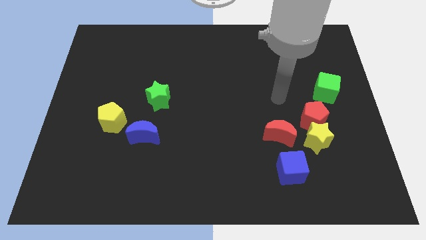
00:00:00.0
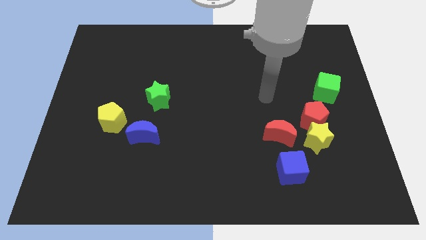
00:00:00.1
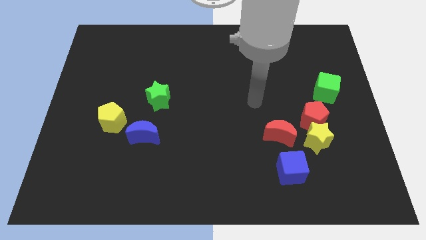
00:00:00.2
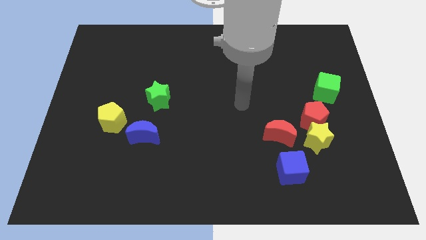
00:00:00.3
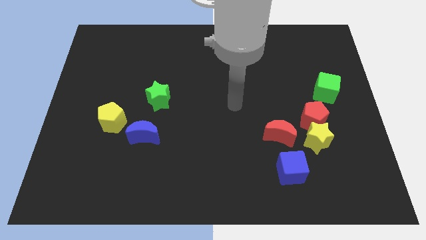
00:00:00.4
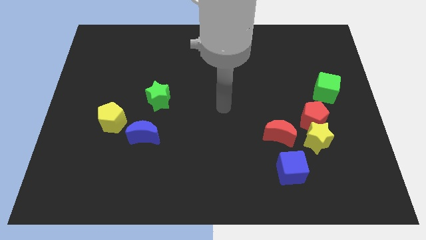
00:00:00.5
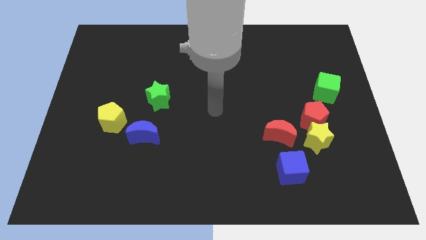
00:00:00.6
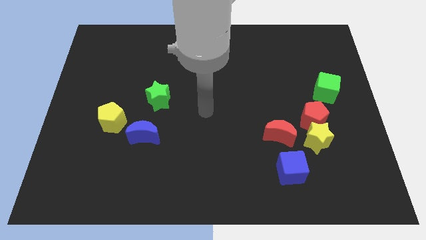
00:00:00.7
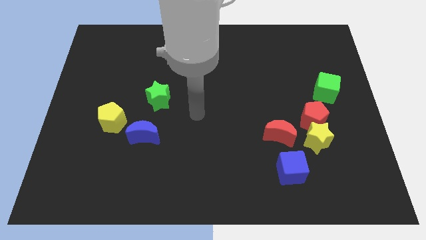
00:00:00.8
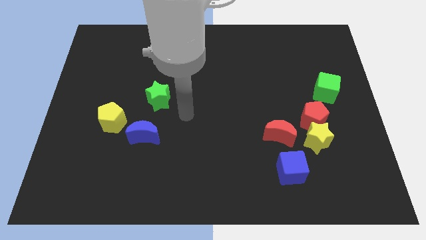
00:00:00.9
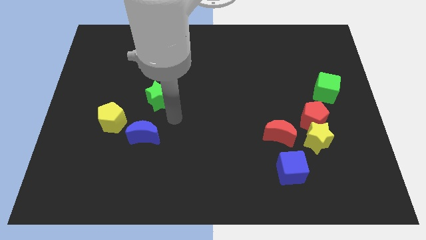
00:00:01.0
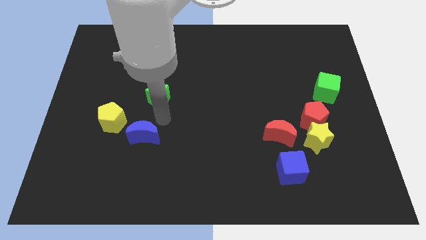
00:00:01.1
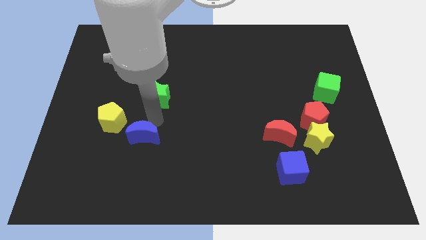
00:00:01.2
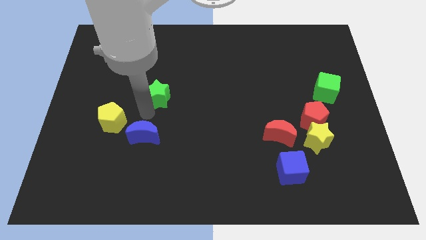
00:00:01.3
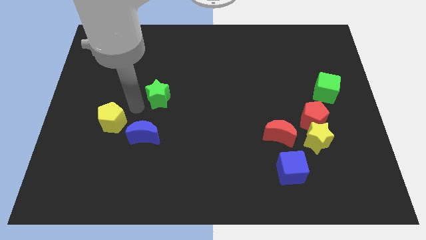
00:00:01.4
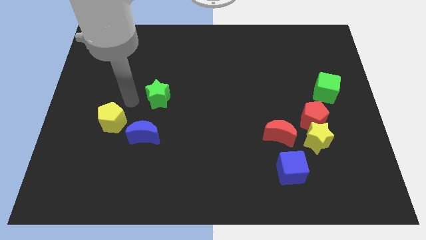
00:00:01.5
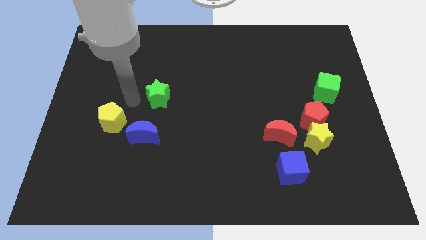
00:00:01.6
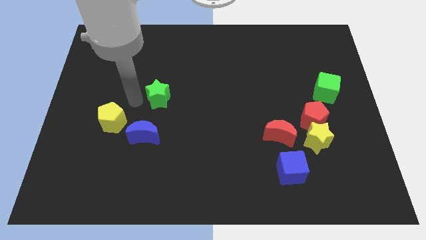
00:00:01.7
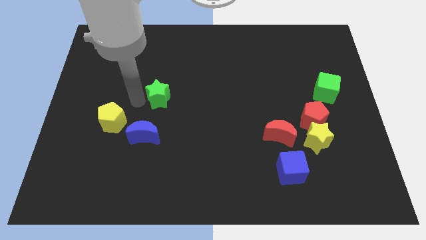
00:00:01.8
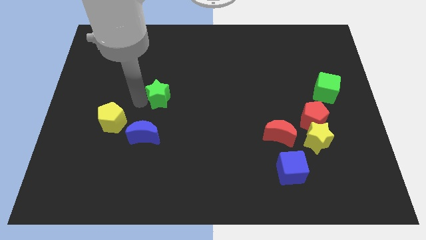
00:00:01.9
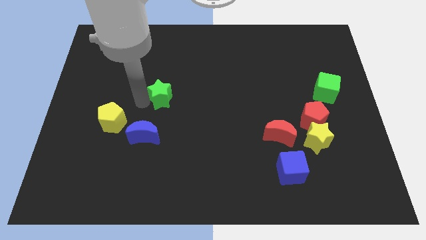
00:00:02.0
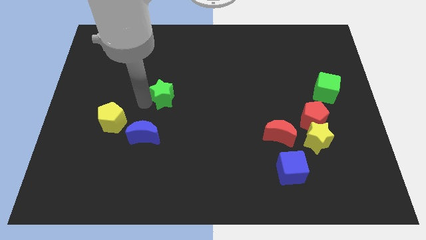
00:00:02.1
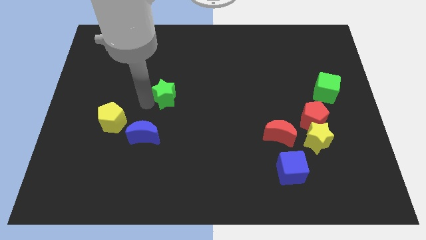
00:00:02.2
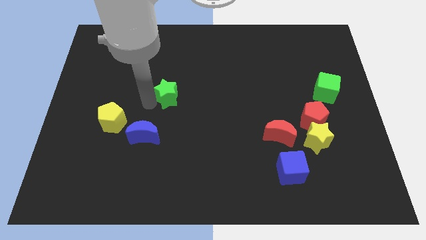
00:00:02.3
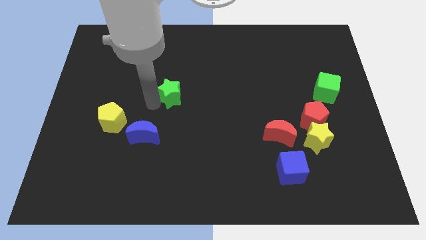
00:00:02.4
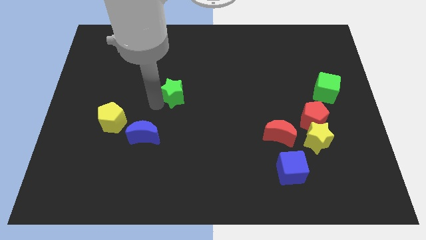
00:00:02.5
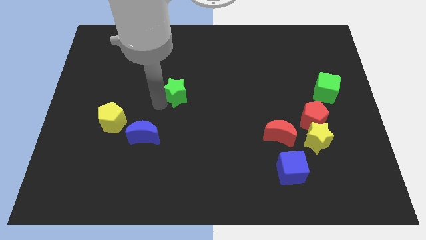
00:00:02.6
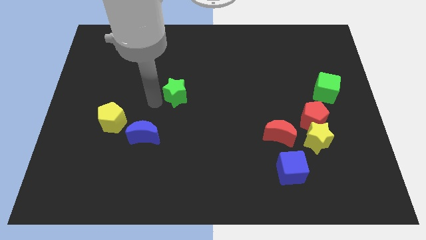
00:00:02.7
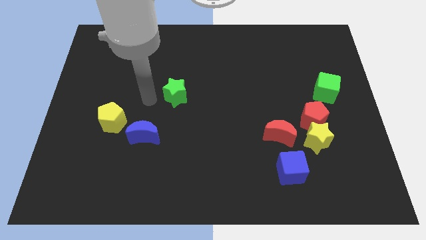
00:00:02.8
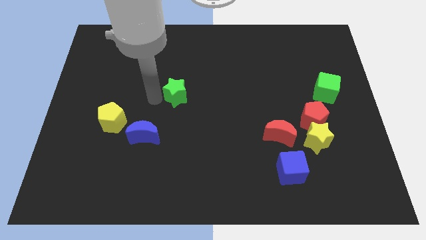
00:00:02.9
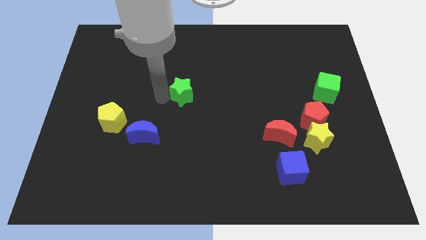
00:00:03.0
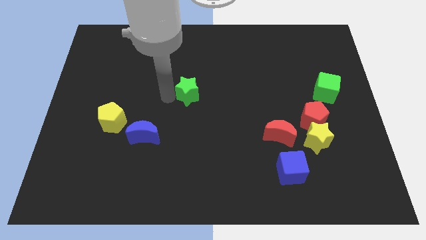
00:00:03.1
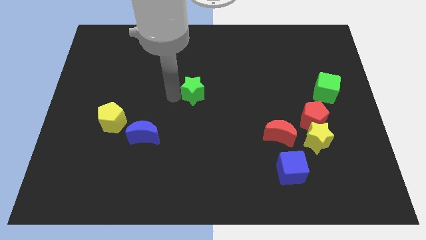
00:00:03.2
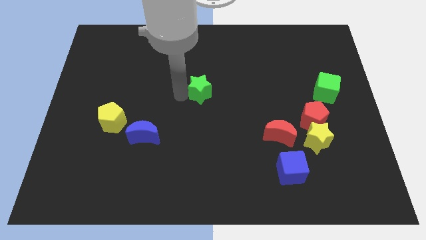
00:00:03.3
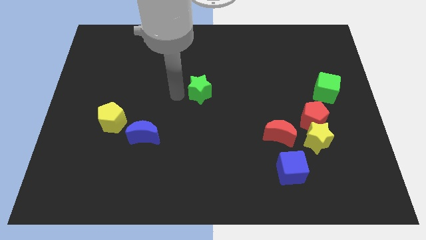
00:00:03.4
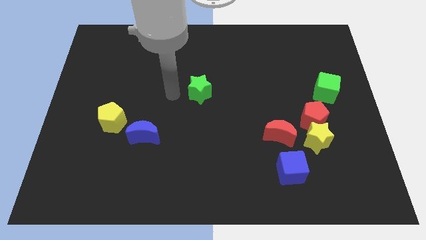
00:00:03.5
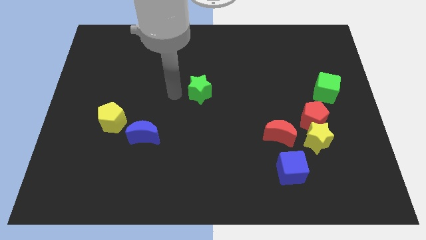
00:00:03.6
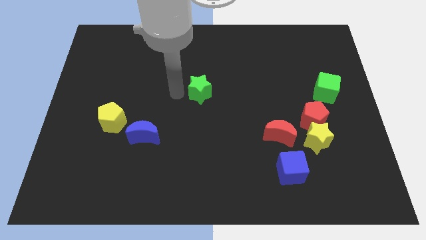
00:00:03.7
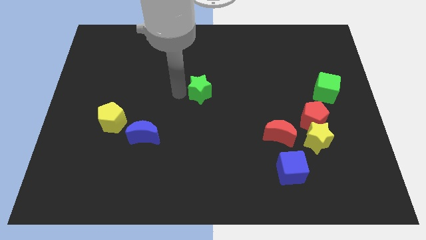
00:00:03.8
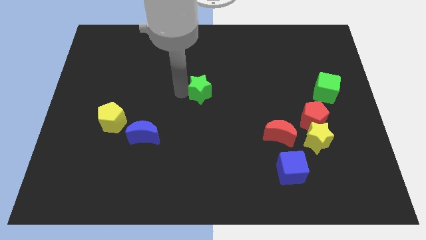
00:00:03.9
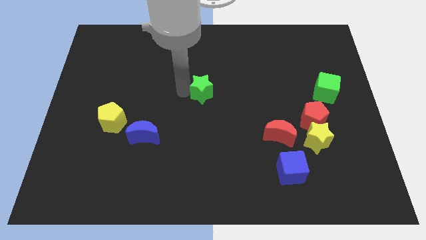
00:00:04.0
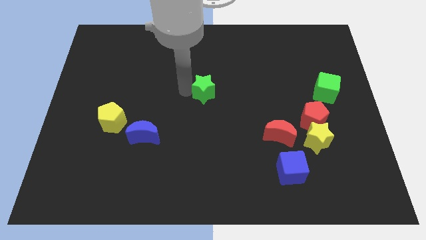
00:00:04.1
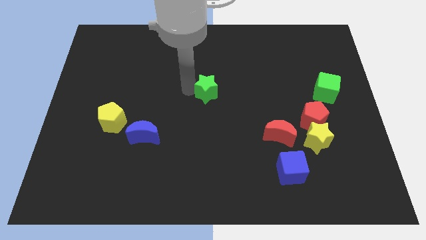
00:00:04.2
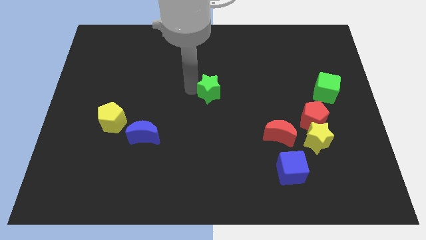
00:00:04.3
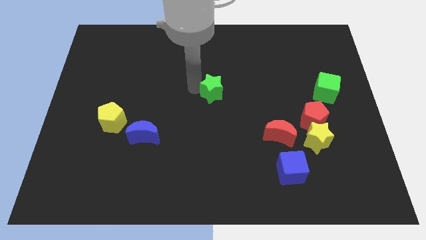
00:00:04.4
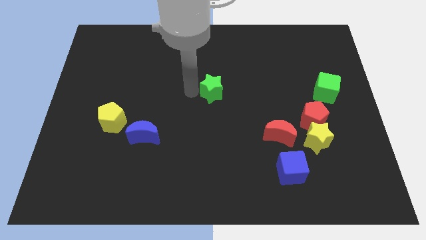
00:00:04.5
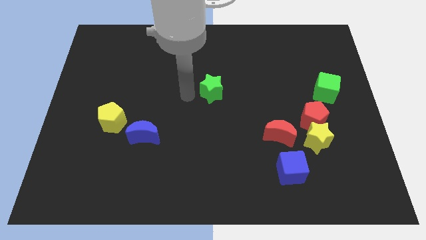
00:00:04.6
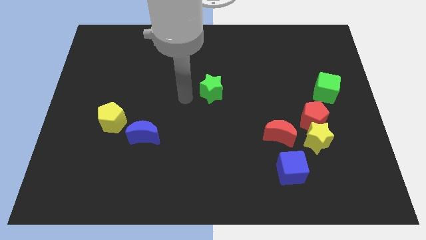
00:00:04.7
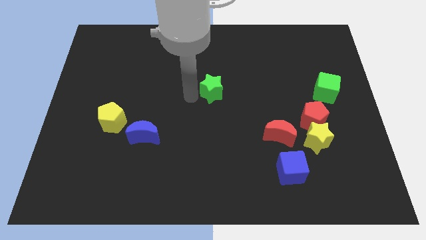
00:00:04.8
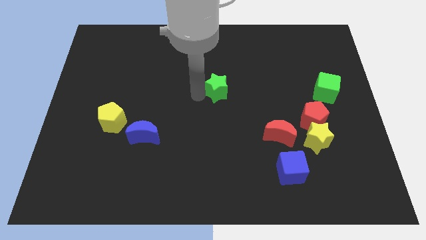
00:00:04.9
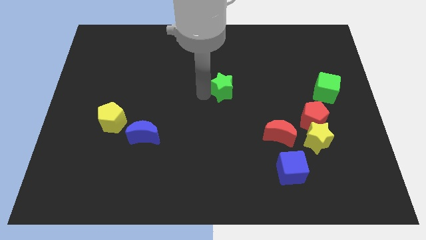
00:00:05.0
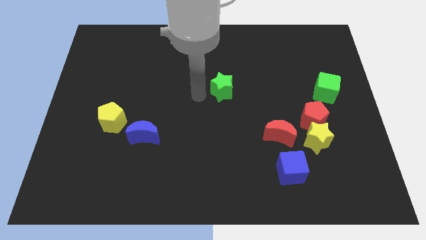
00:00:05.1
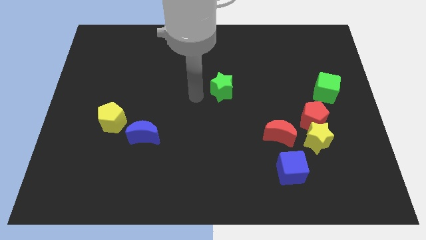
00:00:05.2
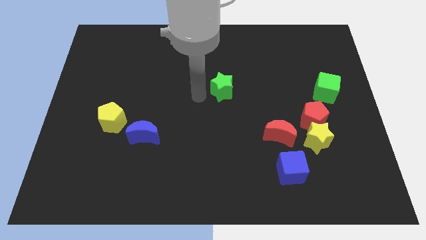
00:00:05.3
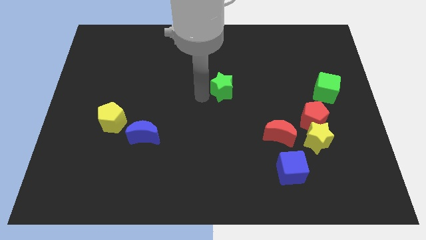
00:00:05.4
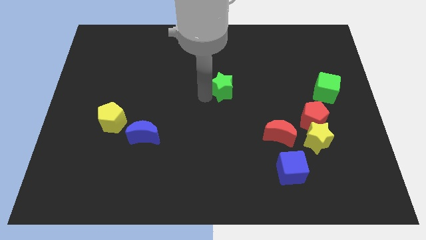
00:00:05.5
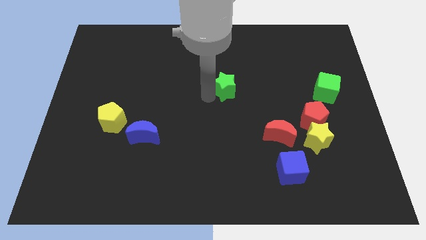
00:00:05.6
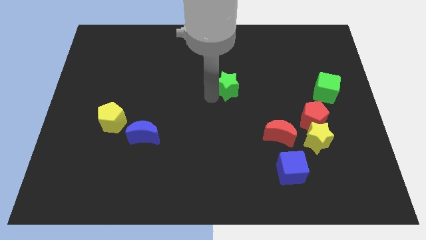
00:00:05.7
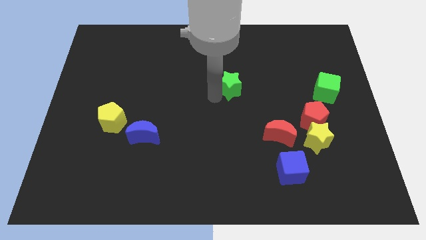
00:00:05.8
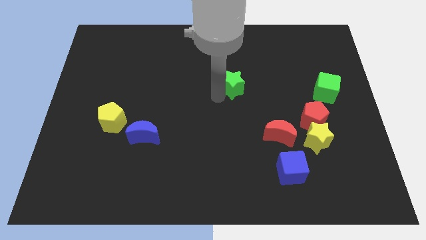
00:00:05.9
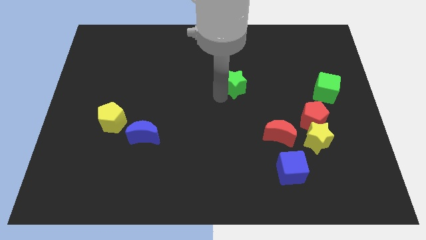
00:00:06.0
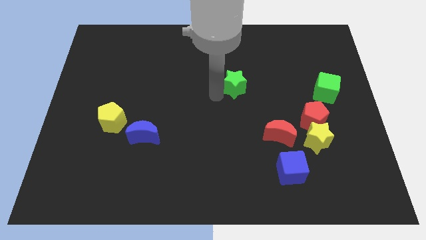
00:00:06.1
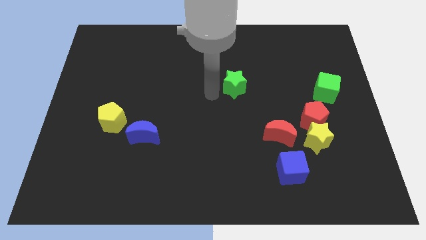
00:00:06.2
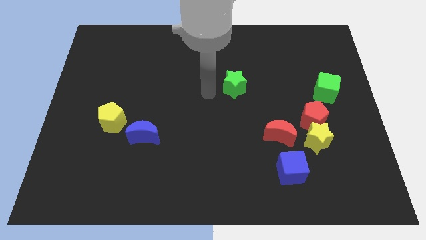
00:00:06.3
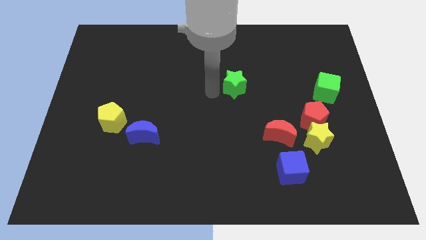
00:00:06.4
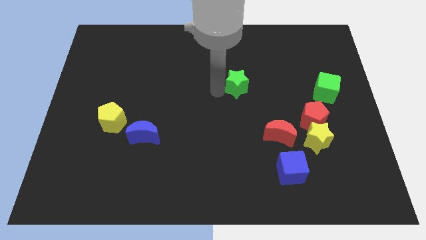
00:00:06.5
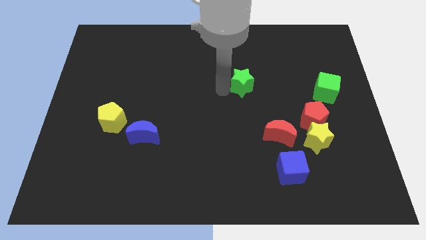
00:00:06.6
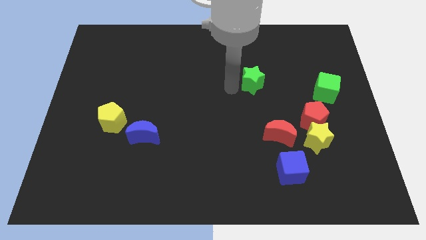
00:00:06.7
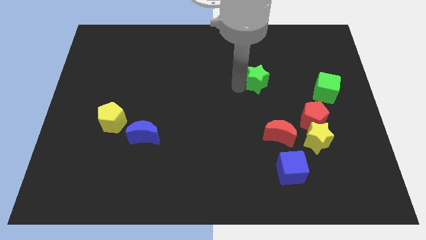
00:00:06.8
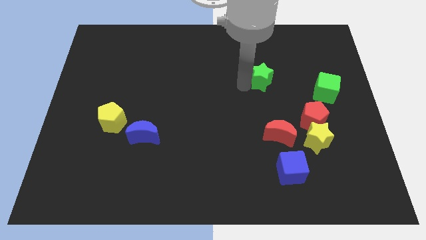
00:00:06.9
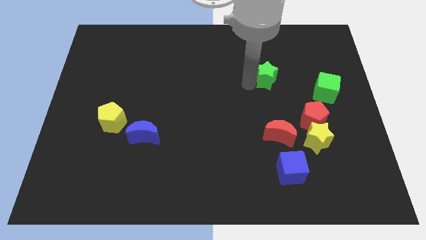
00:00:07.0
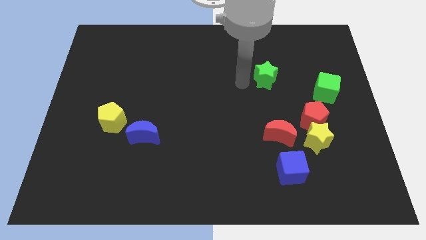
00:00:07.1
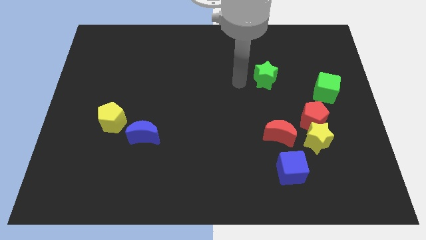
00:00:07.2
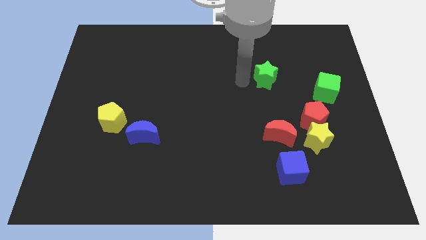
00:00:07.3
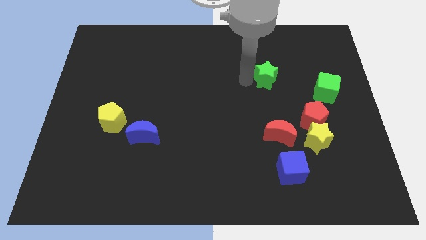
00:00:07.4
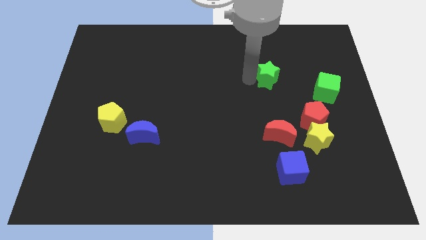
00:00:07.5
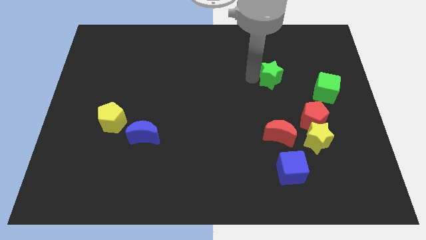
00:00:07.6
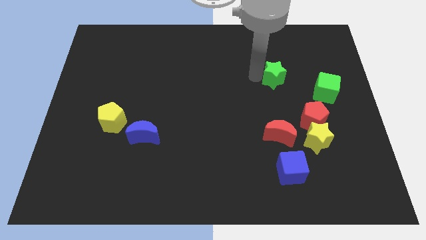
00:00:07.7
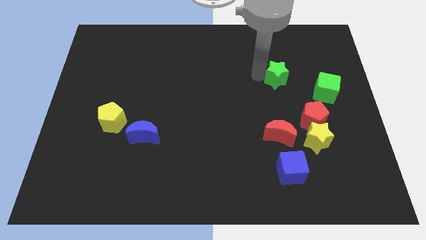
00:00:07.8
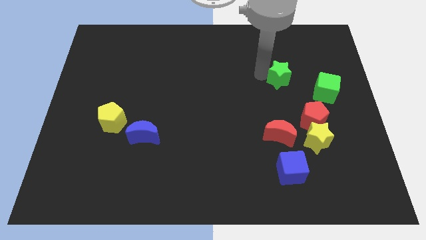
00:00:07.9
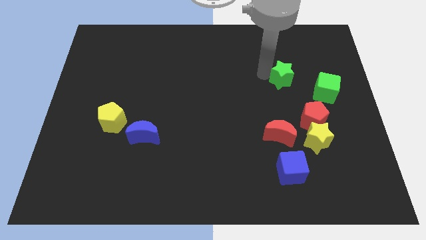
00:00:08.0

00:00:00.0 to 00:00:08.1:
move the green star diagonally up and to the left of the green cube
